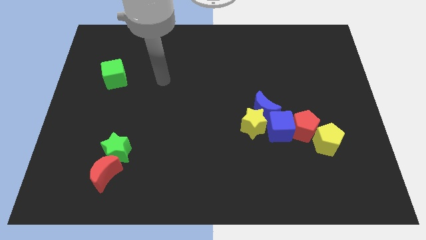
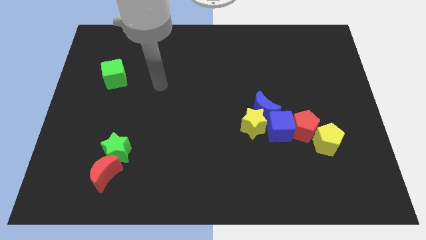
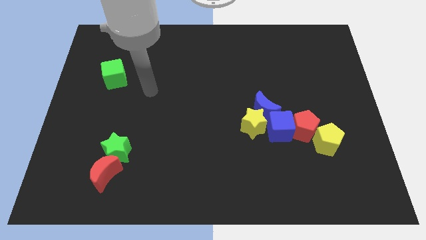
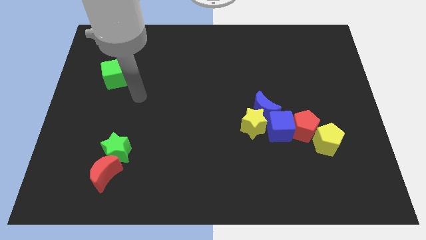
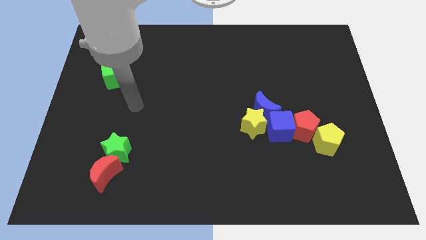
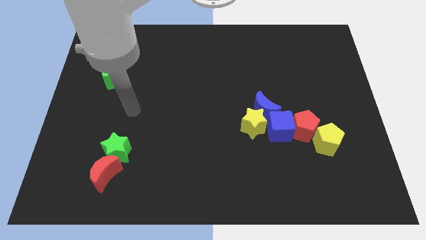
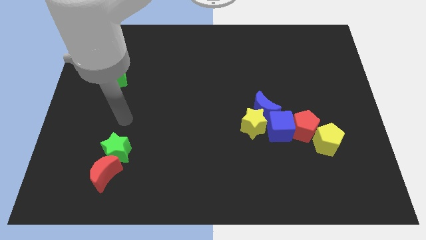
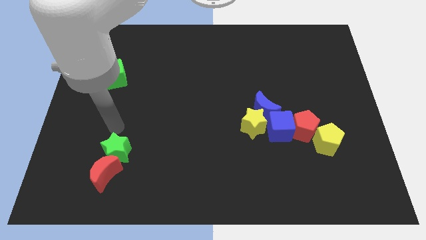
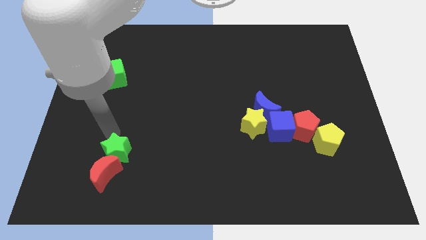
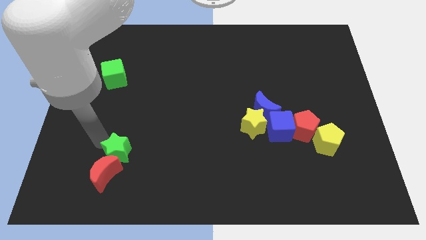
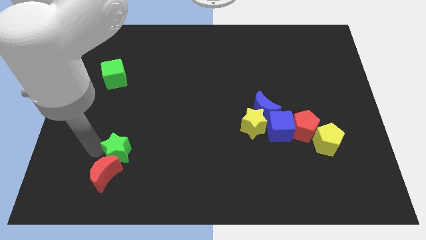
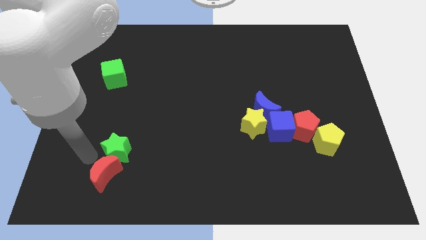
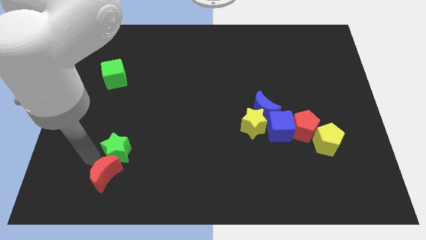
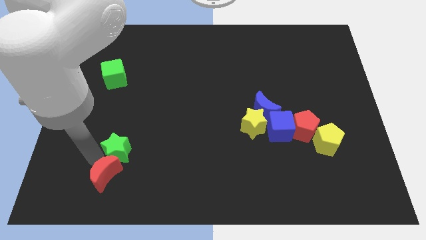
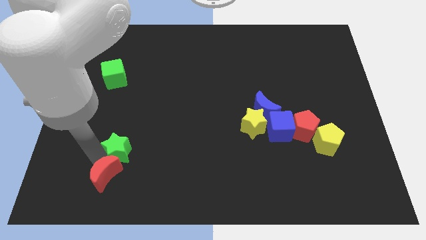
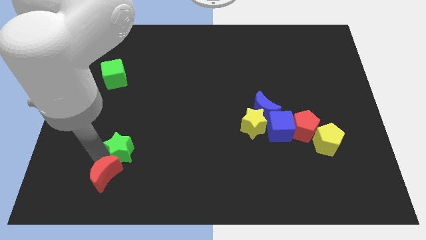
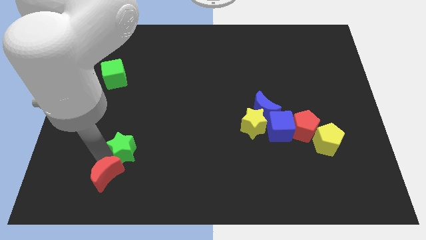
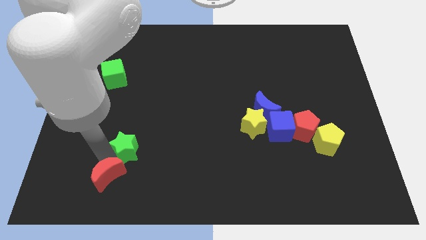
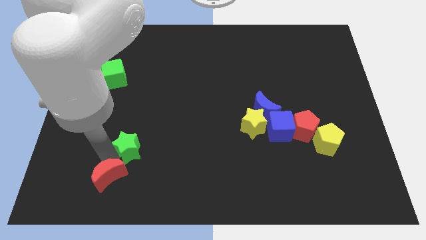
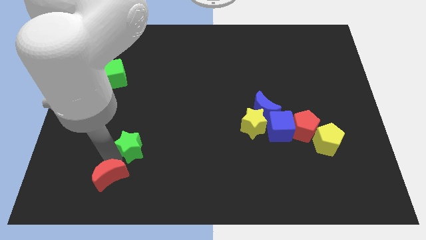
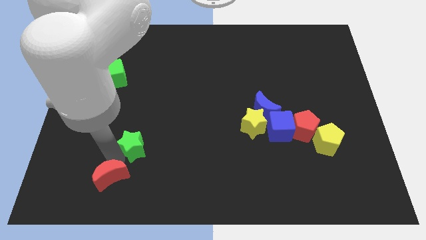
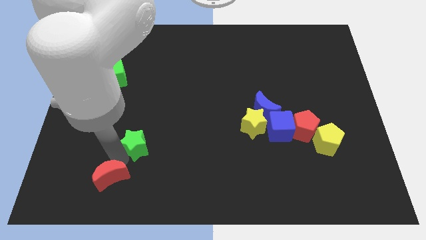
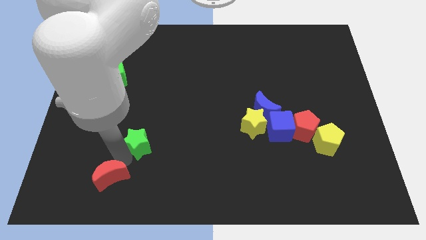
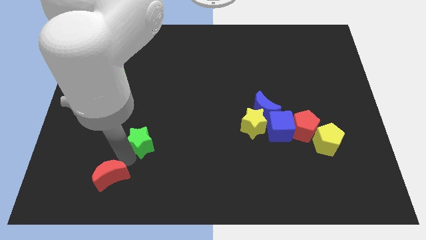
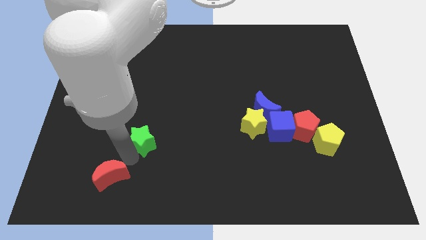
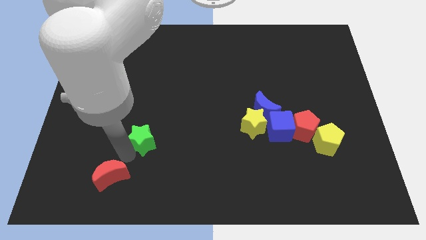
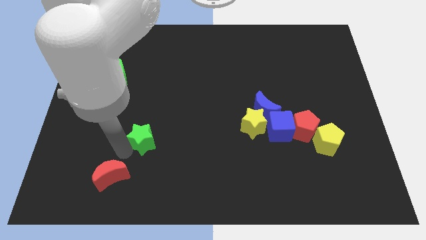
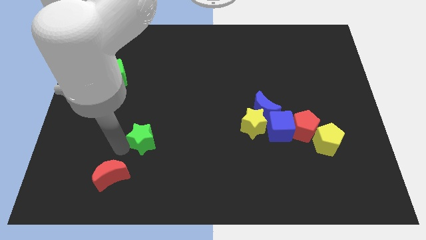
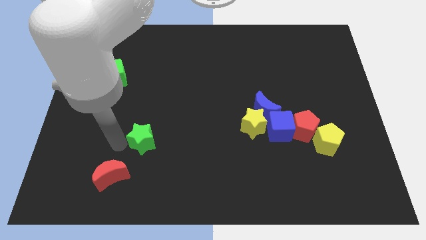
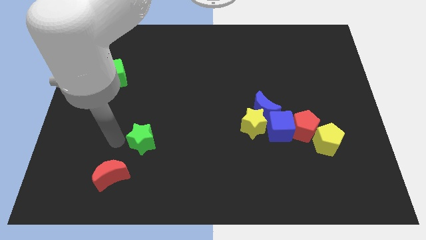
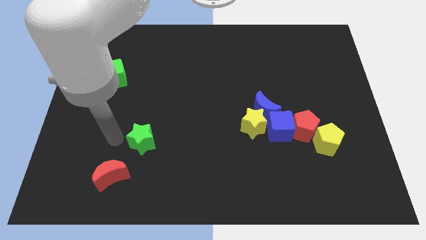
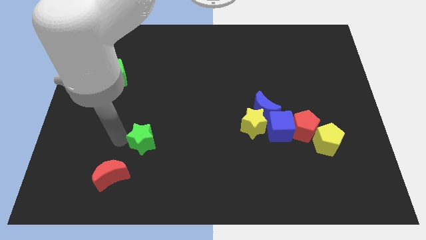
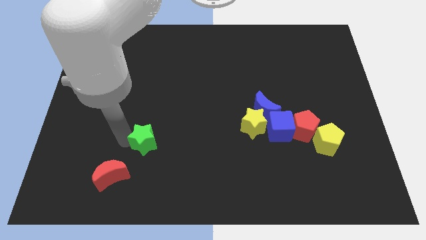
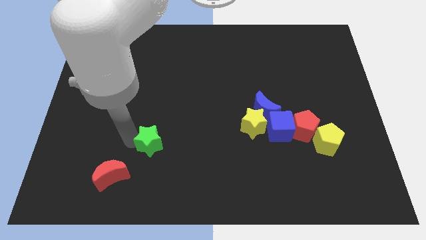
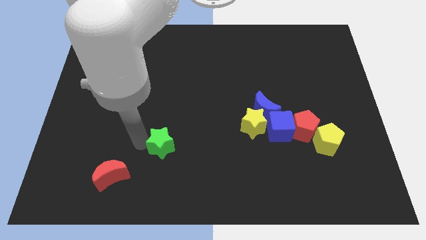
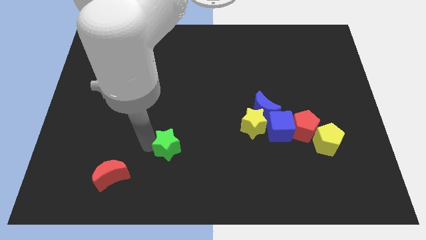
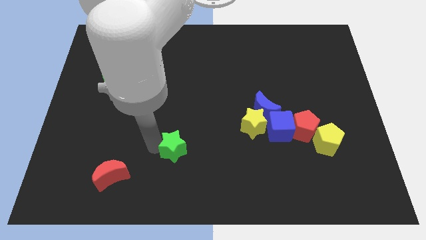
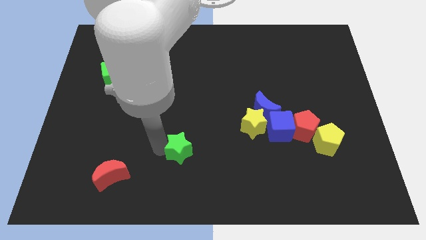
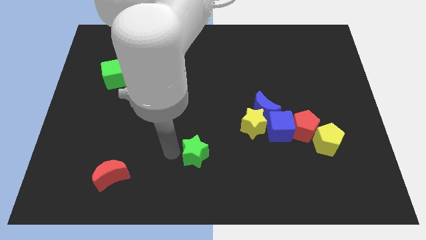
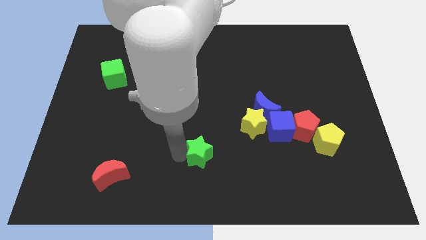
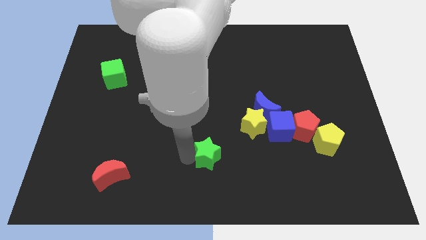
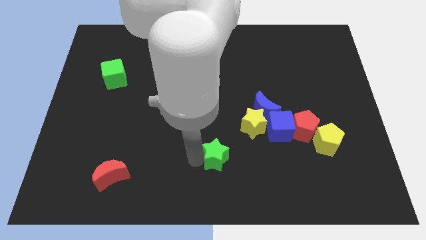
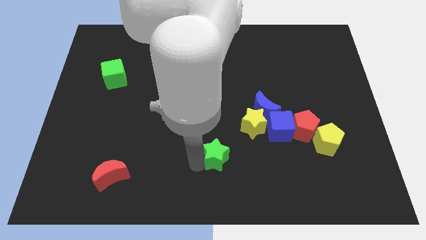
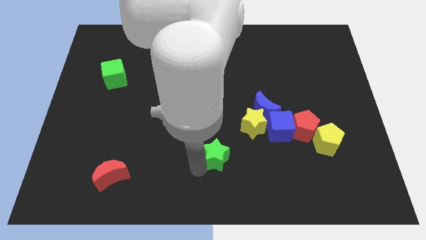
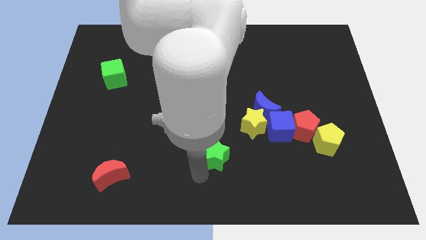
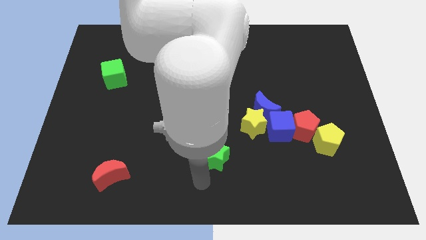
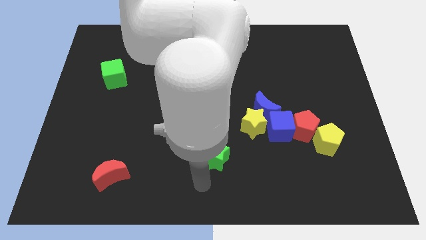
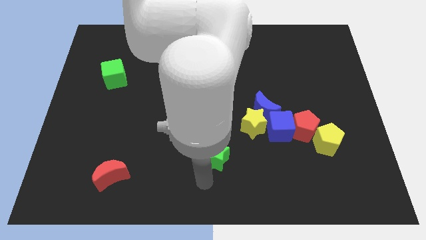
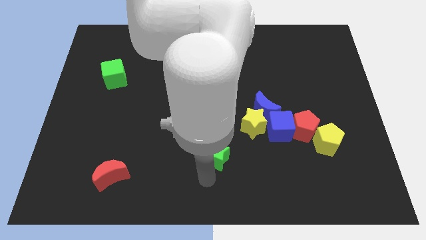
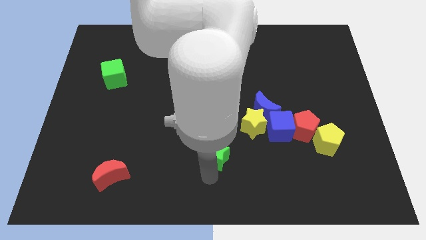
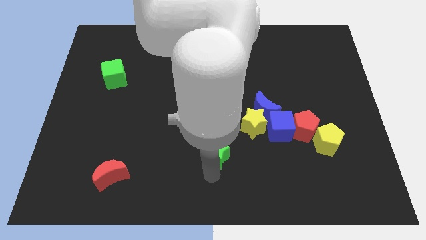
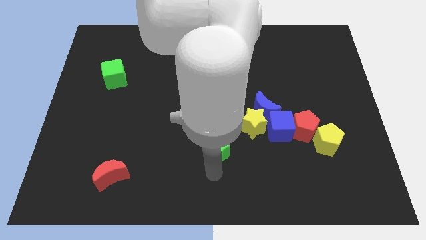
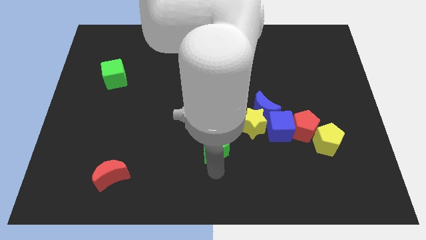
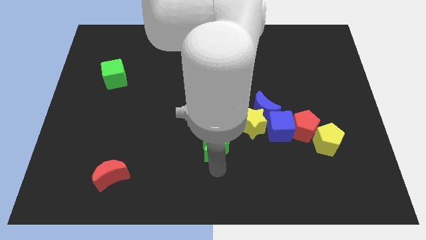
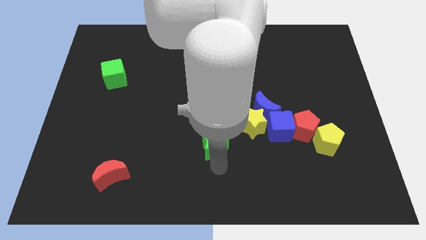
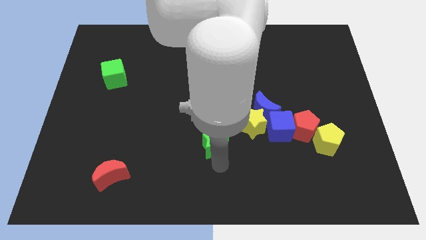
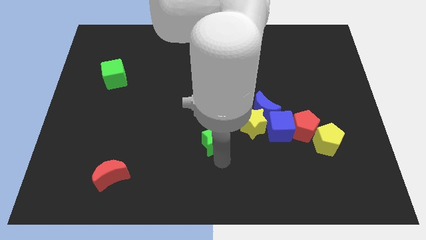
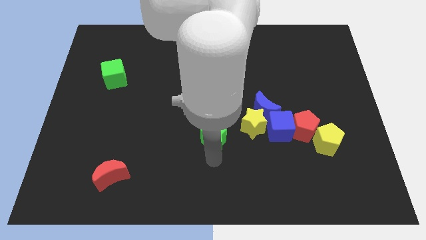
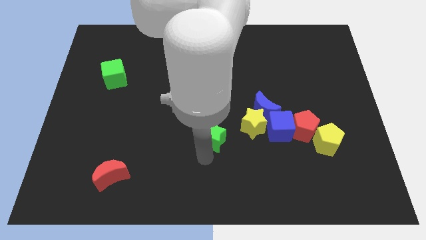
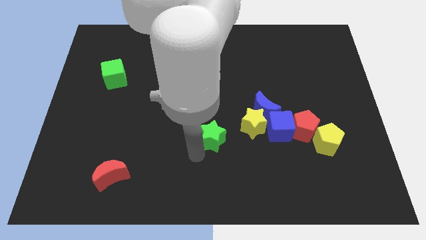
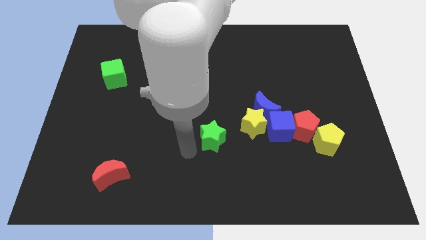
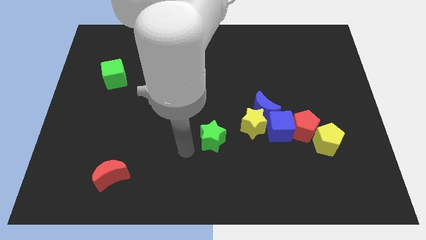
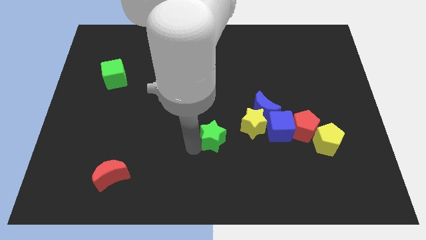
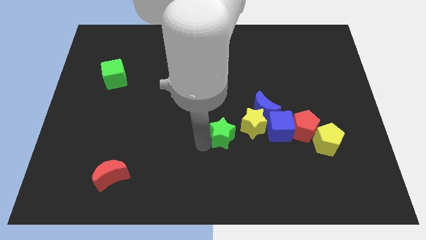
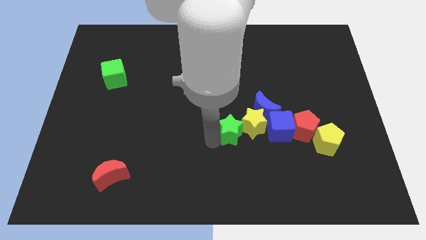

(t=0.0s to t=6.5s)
put the green star next to the yellow star

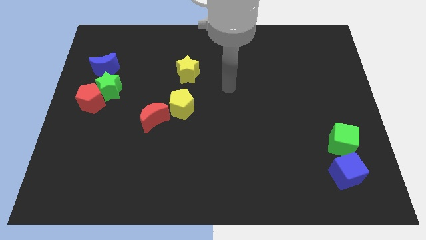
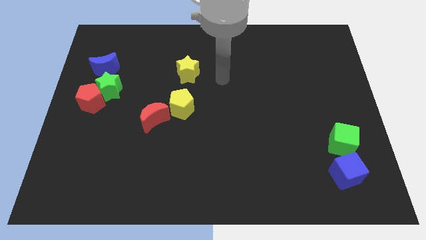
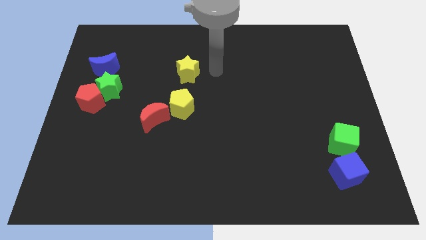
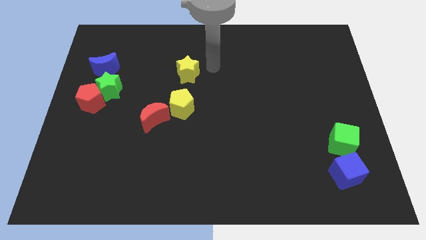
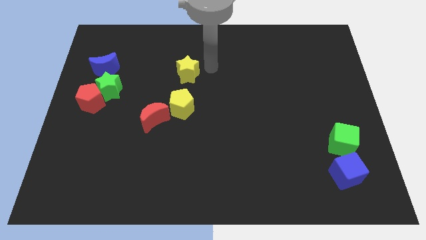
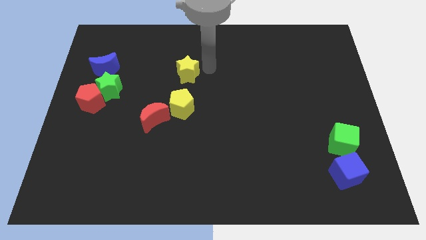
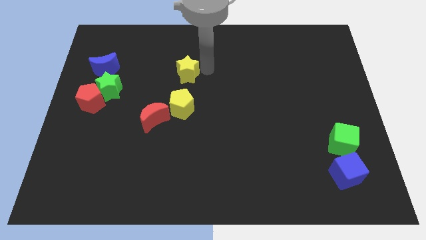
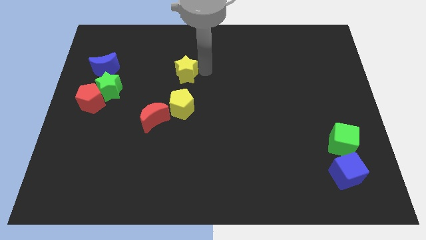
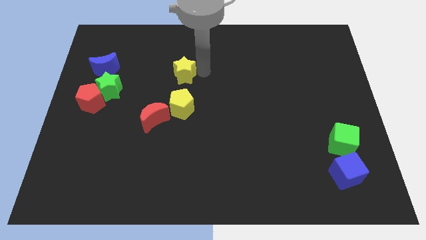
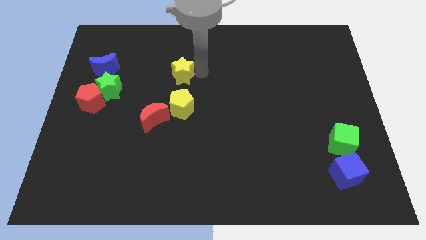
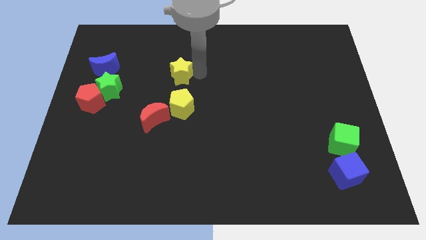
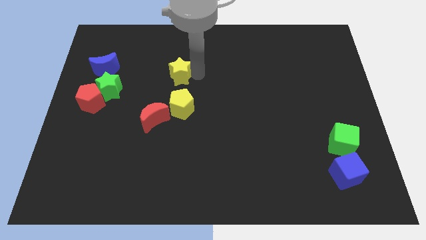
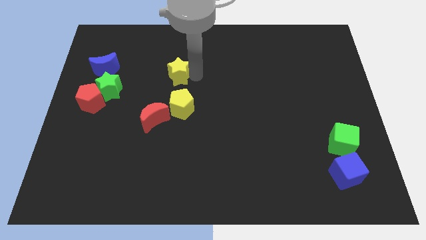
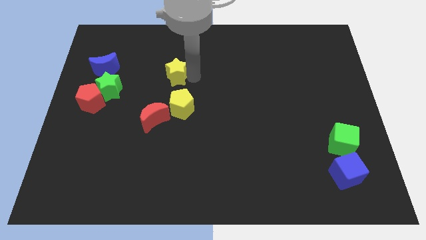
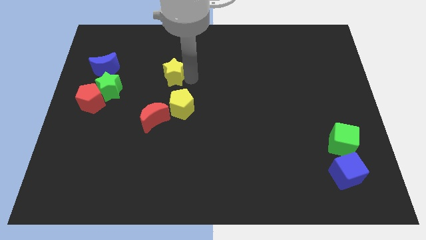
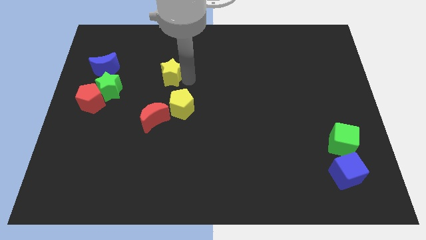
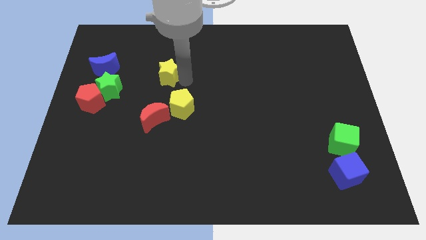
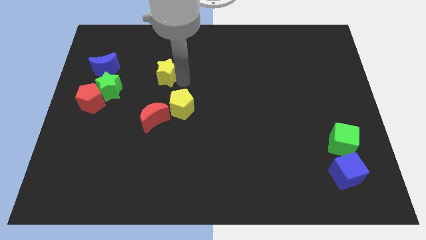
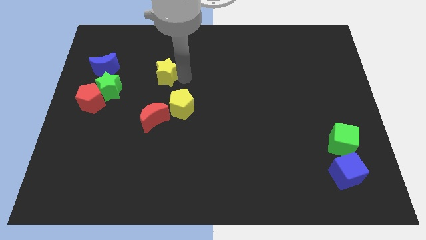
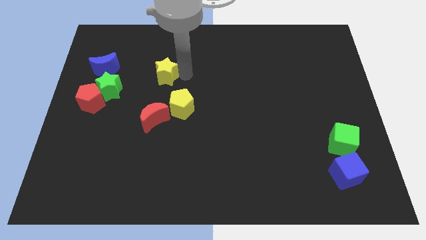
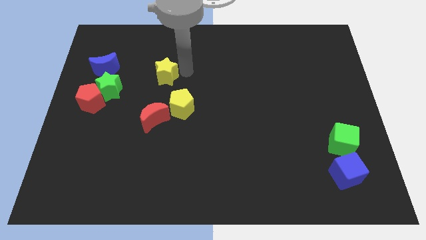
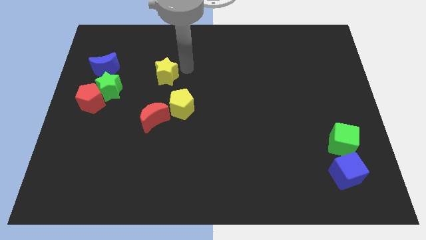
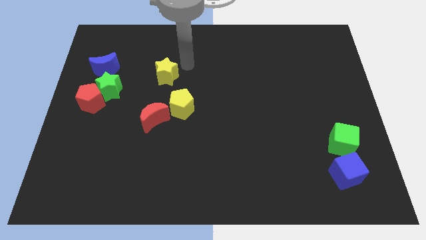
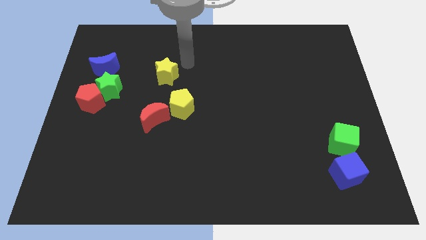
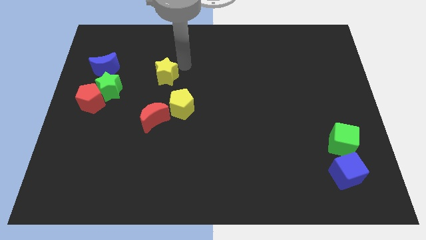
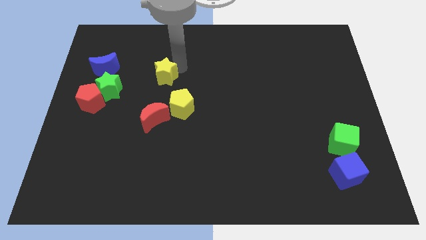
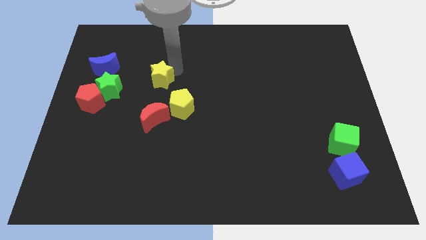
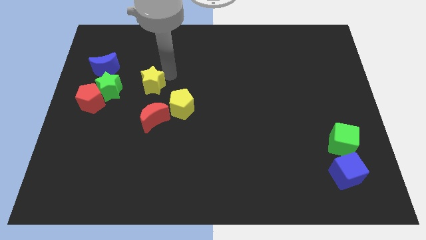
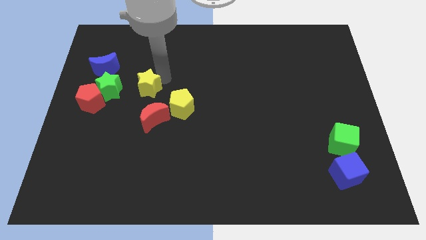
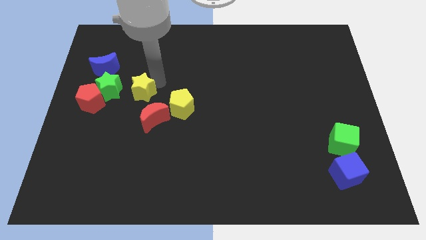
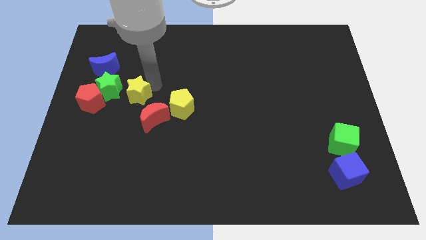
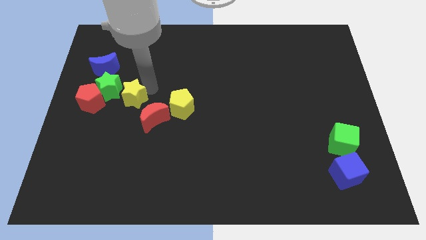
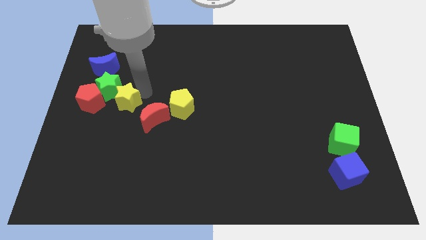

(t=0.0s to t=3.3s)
move the yellow star next to the green star
